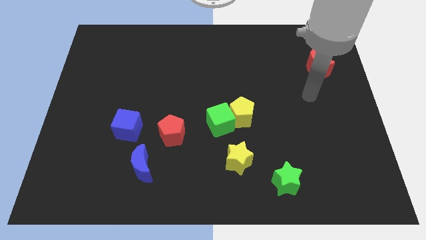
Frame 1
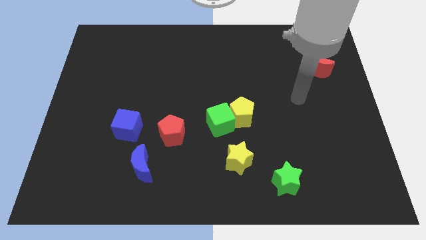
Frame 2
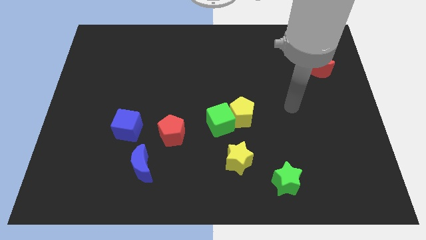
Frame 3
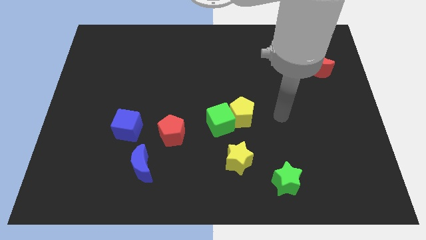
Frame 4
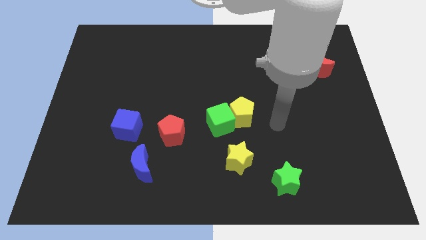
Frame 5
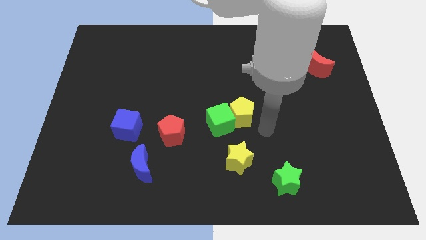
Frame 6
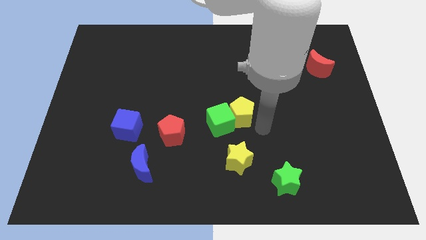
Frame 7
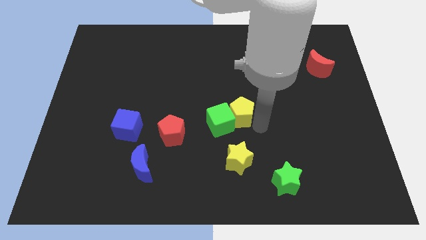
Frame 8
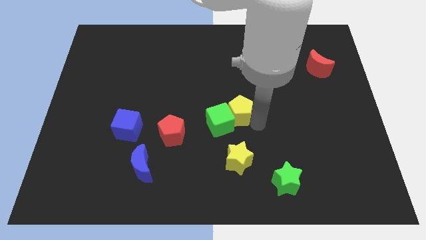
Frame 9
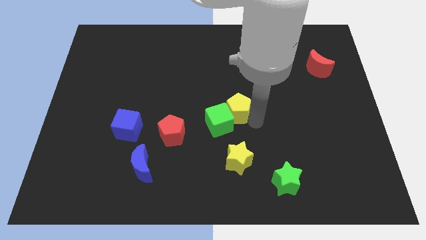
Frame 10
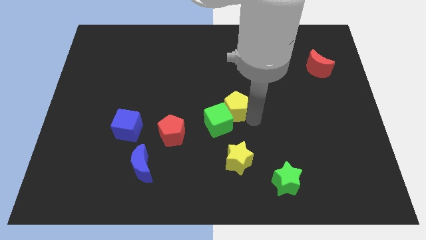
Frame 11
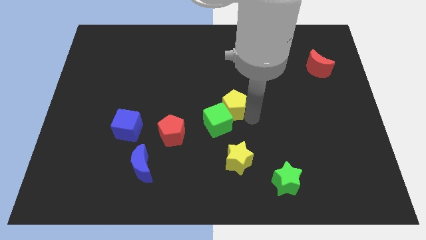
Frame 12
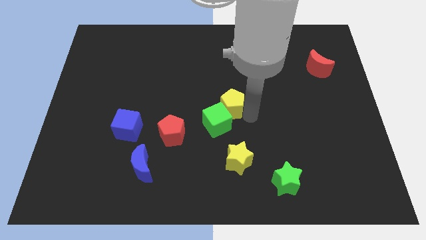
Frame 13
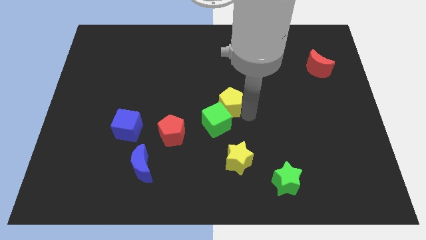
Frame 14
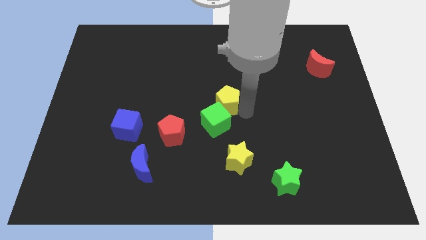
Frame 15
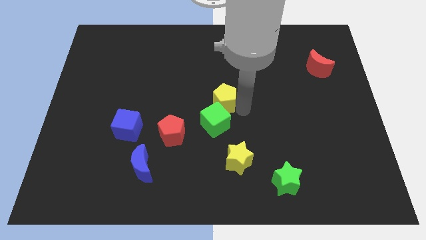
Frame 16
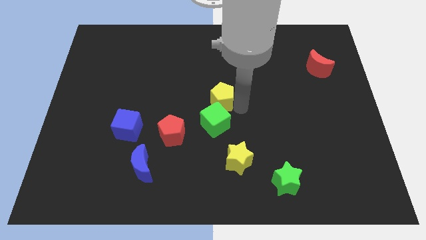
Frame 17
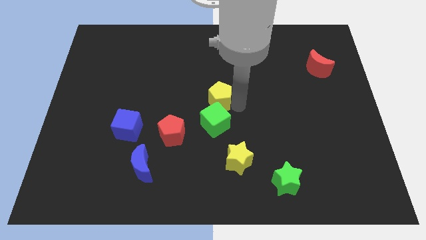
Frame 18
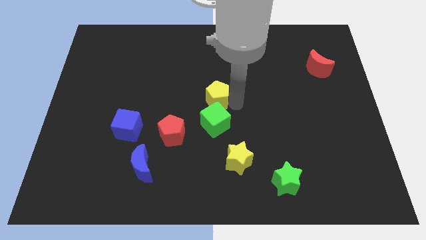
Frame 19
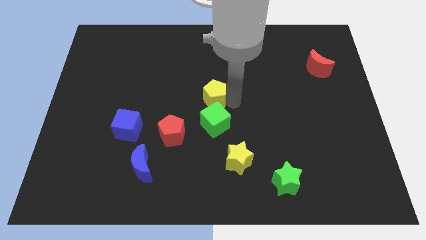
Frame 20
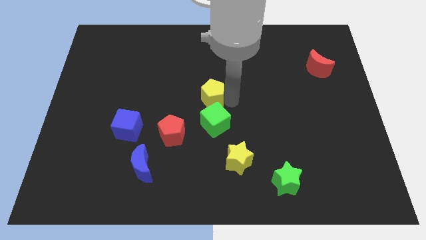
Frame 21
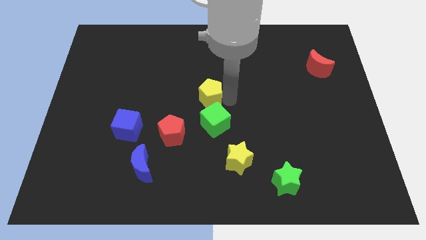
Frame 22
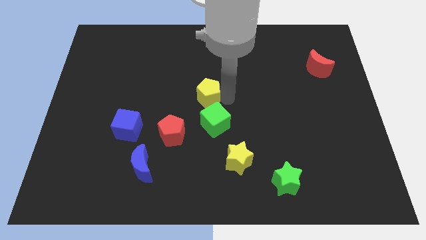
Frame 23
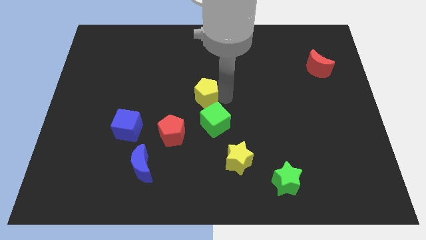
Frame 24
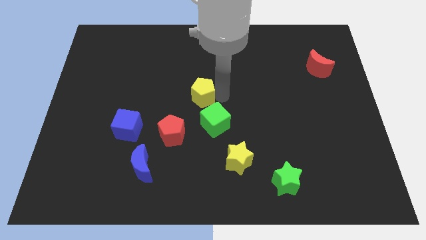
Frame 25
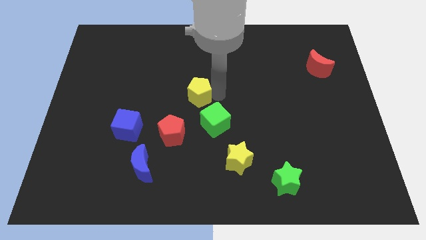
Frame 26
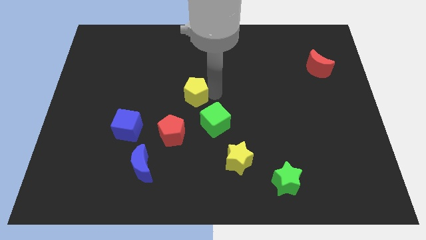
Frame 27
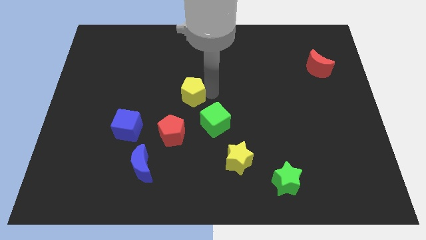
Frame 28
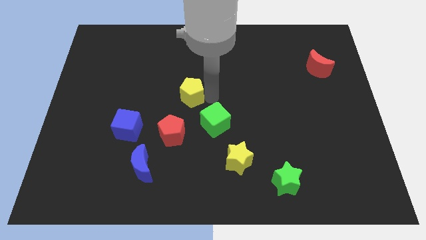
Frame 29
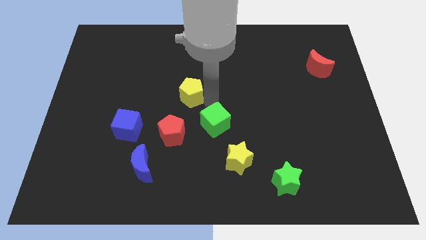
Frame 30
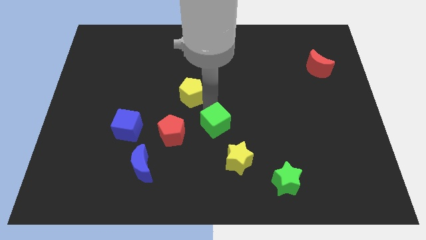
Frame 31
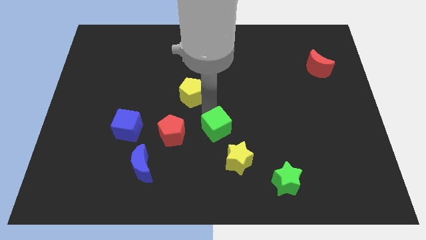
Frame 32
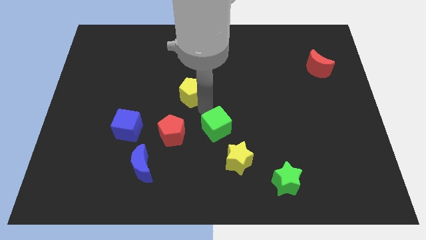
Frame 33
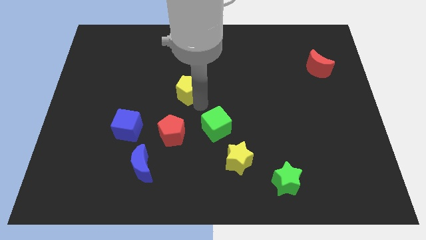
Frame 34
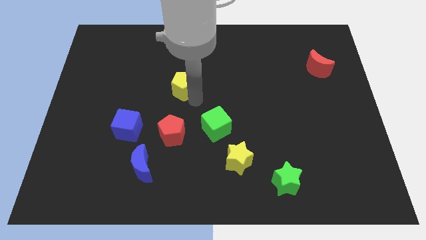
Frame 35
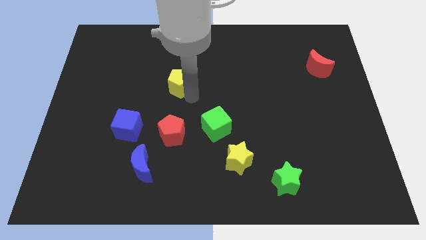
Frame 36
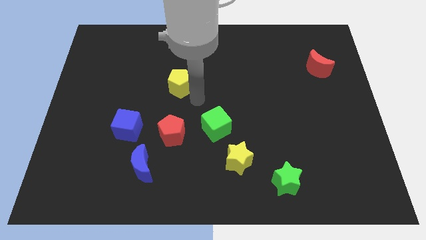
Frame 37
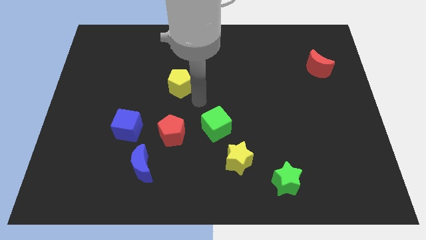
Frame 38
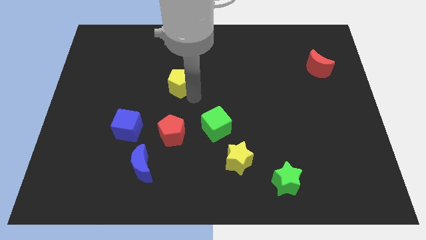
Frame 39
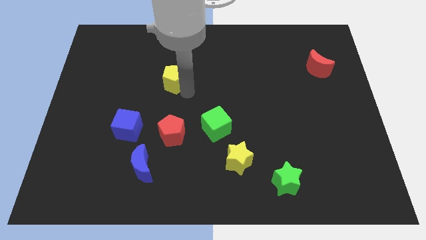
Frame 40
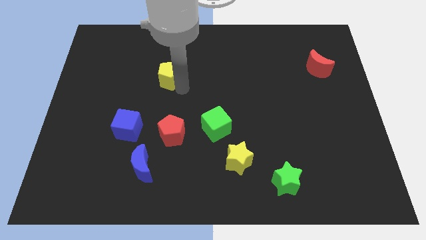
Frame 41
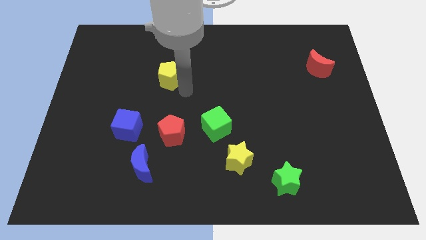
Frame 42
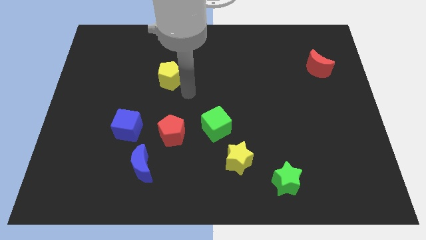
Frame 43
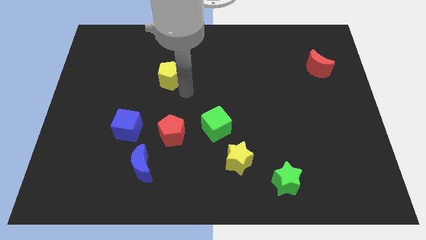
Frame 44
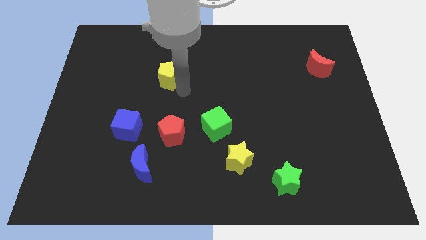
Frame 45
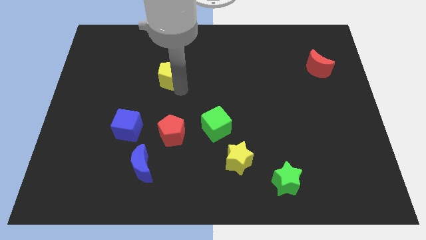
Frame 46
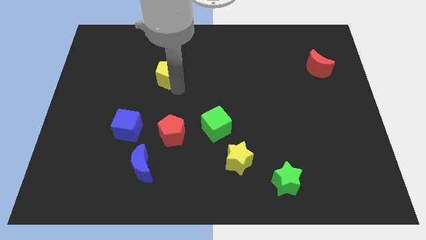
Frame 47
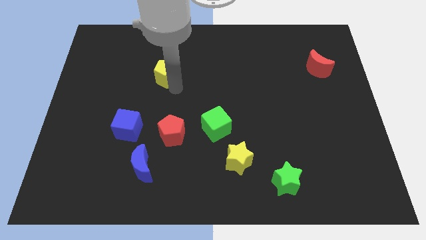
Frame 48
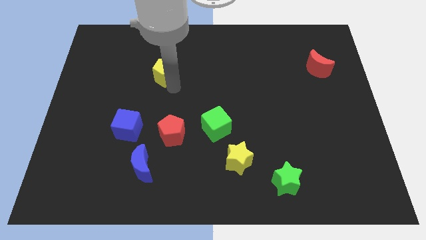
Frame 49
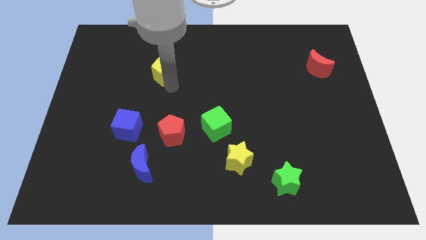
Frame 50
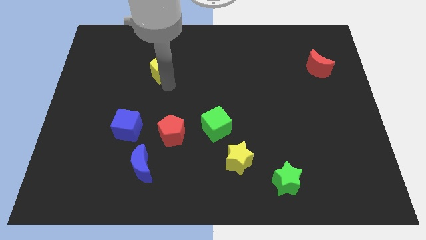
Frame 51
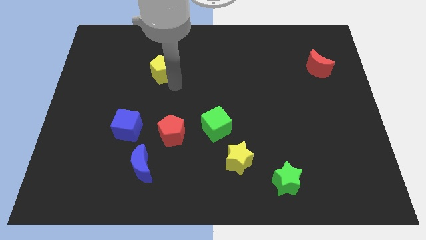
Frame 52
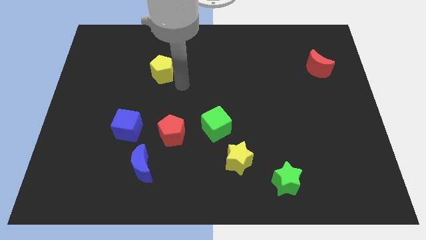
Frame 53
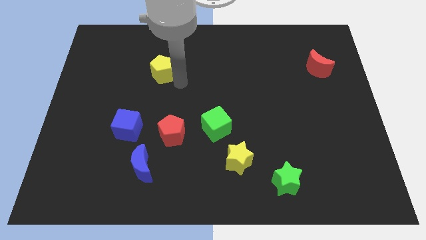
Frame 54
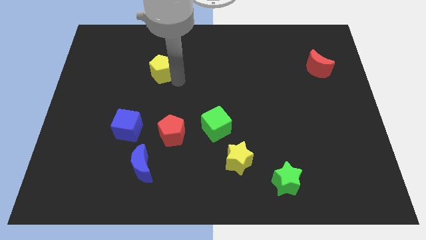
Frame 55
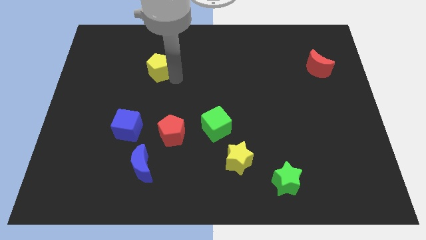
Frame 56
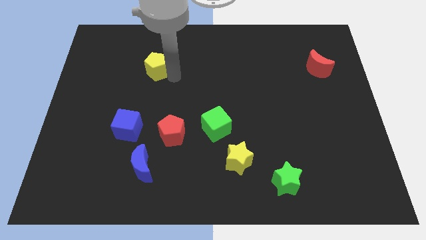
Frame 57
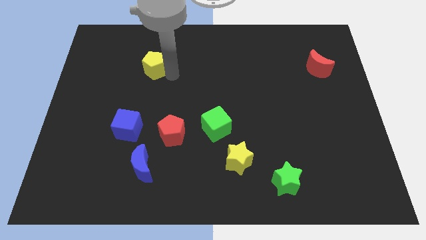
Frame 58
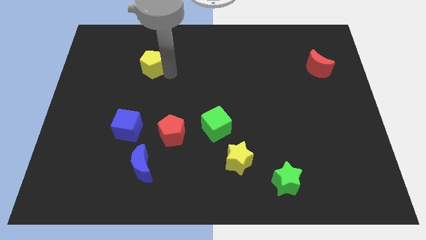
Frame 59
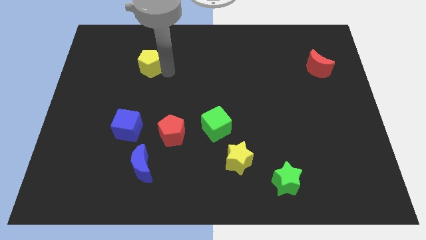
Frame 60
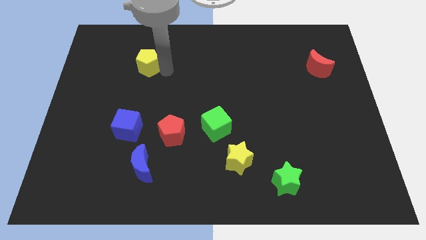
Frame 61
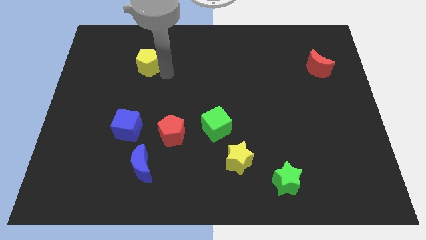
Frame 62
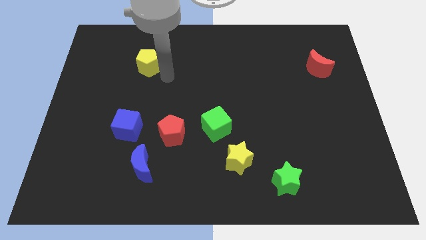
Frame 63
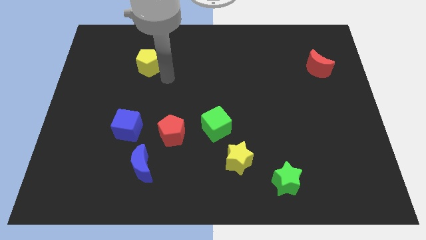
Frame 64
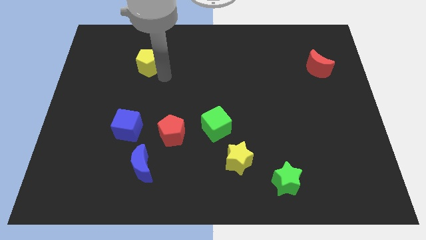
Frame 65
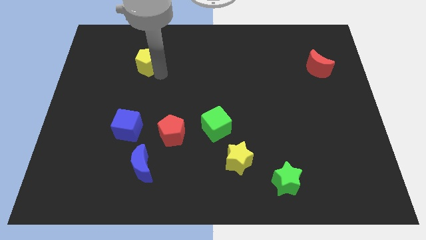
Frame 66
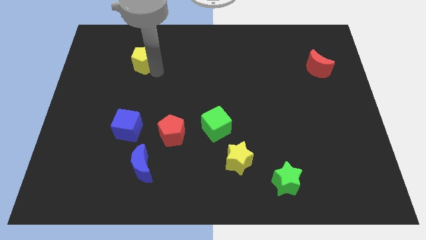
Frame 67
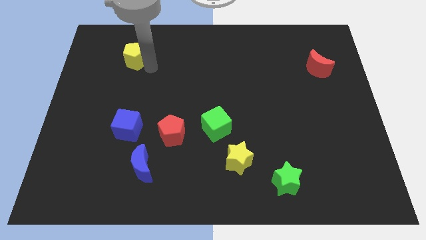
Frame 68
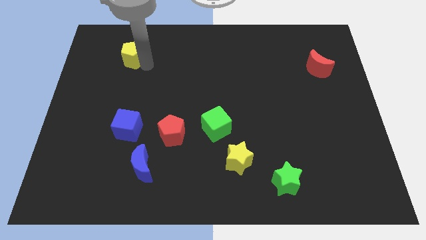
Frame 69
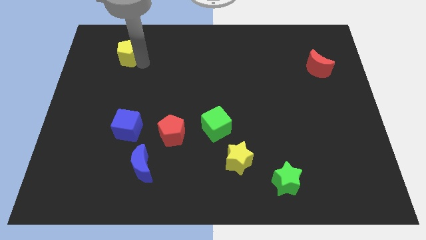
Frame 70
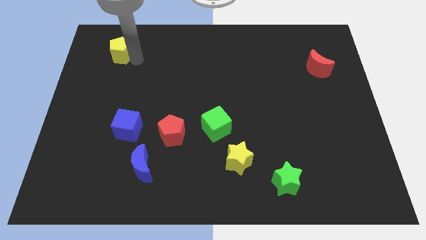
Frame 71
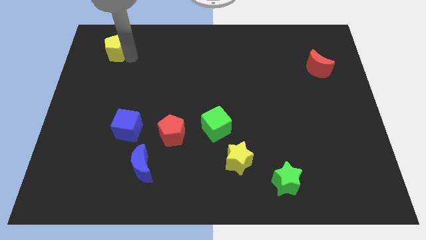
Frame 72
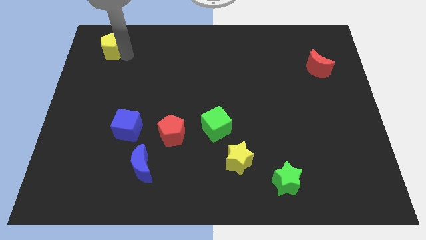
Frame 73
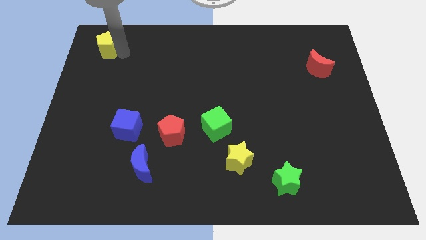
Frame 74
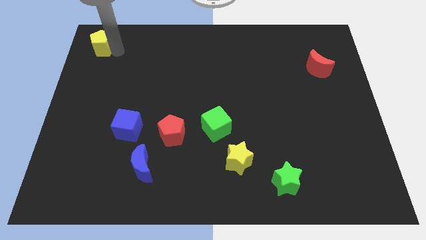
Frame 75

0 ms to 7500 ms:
put the yellow pentagon to the upper left corner
